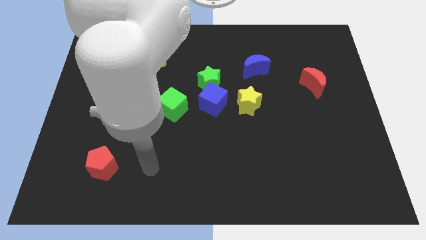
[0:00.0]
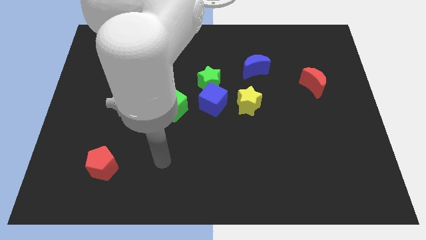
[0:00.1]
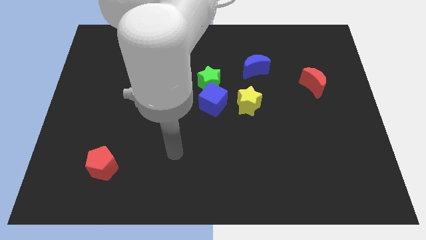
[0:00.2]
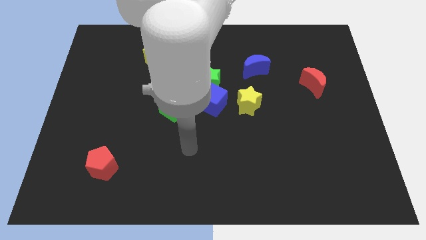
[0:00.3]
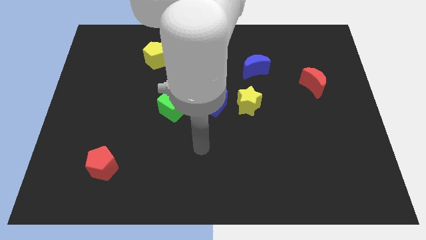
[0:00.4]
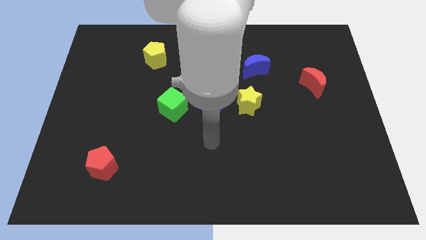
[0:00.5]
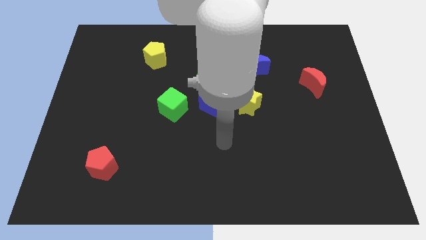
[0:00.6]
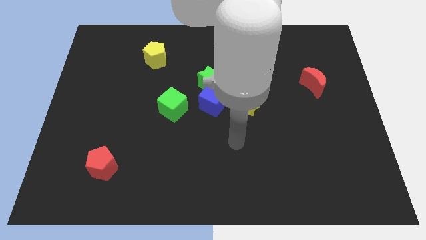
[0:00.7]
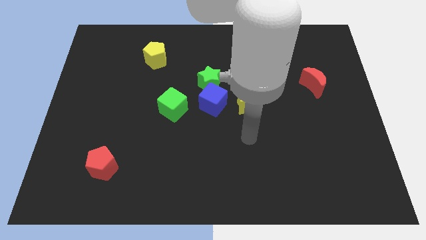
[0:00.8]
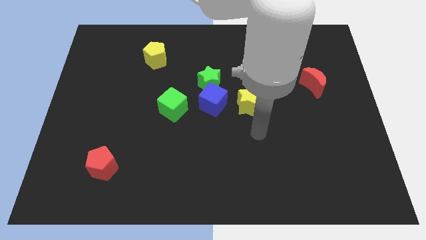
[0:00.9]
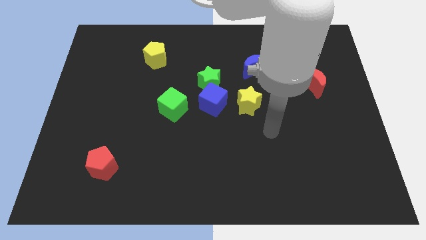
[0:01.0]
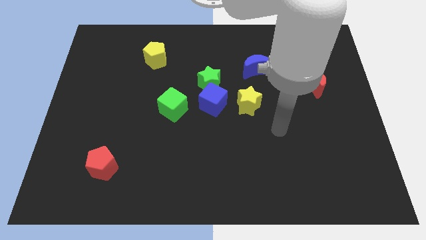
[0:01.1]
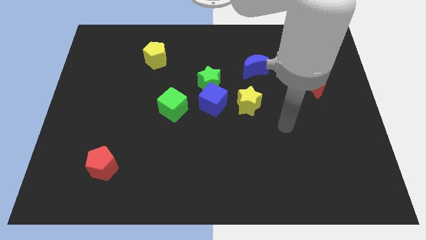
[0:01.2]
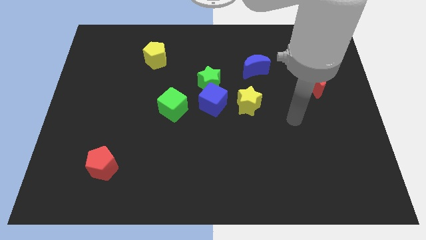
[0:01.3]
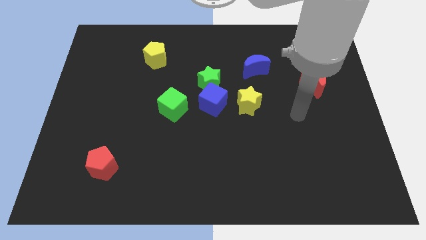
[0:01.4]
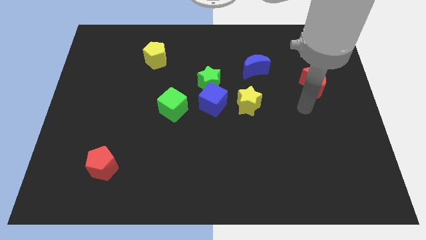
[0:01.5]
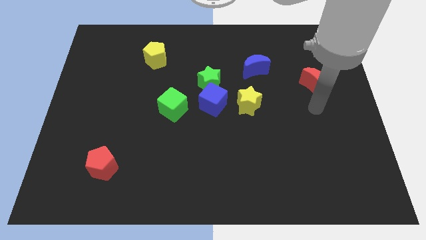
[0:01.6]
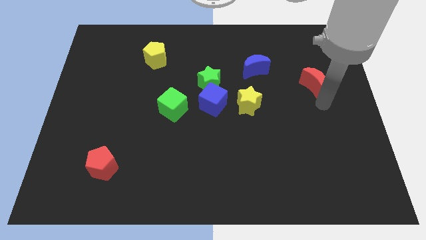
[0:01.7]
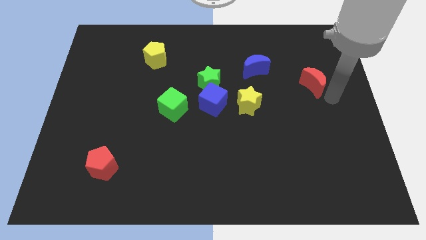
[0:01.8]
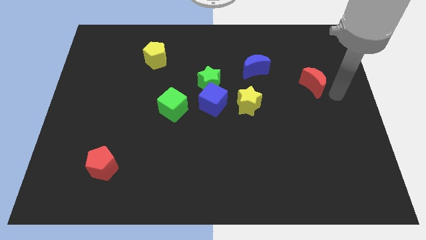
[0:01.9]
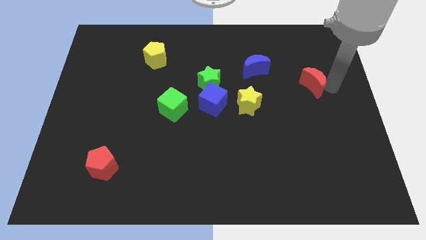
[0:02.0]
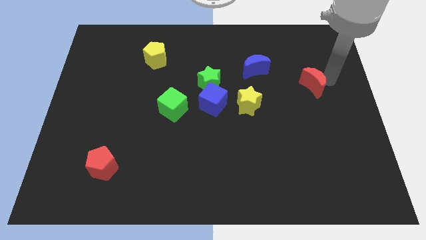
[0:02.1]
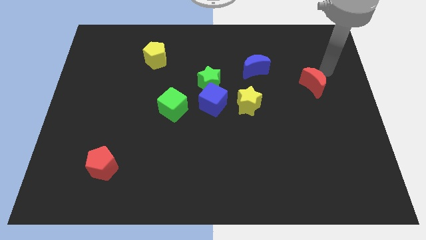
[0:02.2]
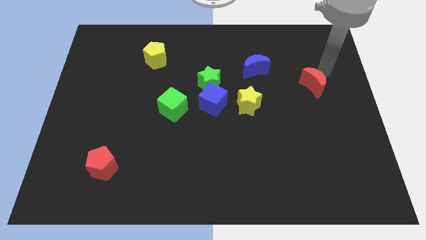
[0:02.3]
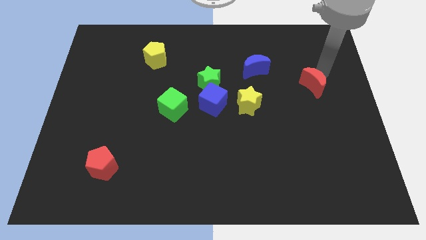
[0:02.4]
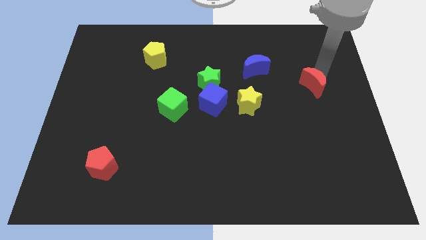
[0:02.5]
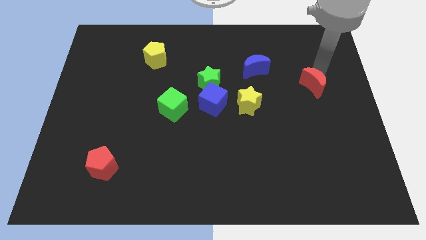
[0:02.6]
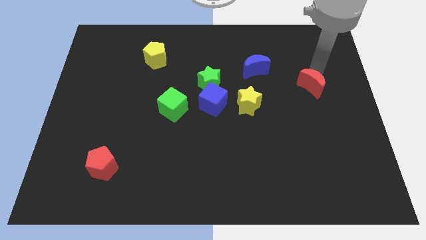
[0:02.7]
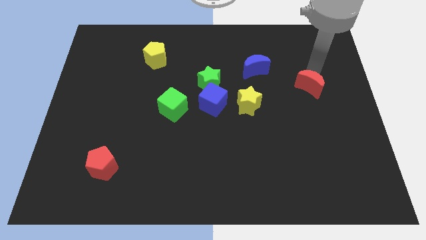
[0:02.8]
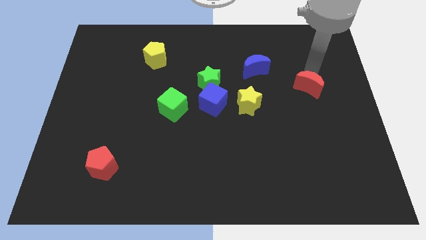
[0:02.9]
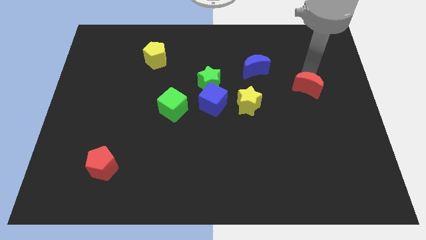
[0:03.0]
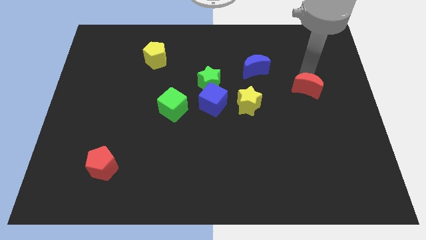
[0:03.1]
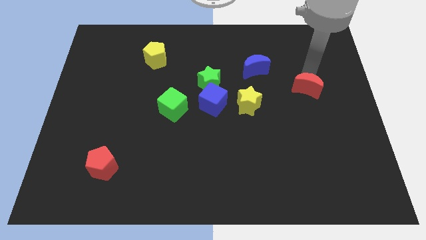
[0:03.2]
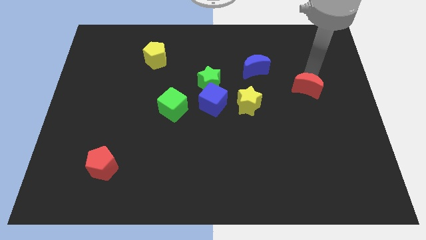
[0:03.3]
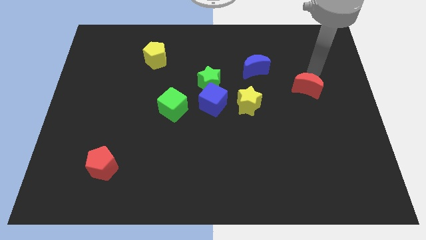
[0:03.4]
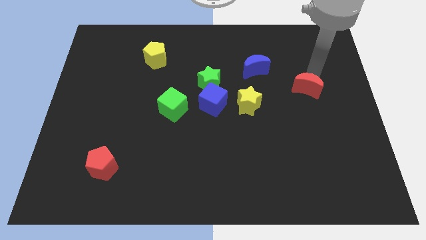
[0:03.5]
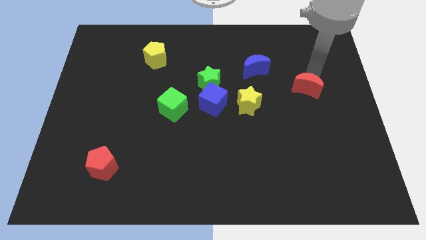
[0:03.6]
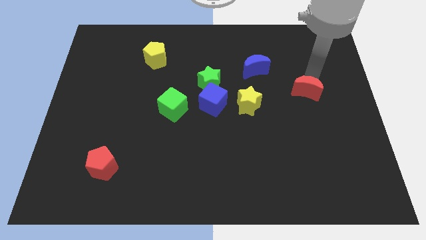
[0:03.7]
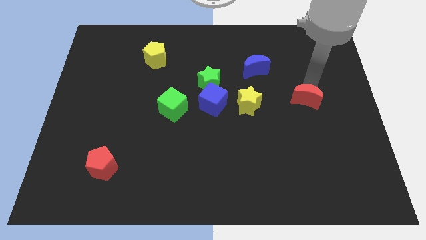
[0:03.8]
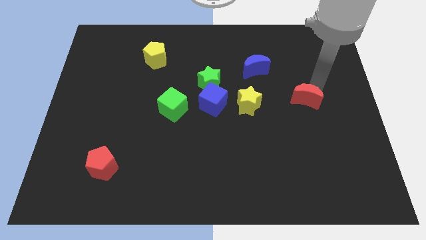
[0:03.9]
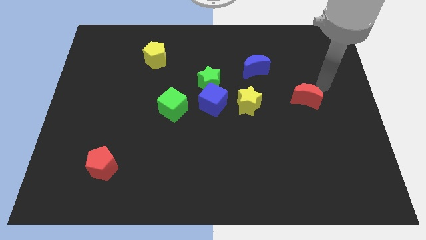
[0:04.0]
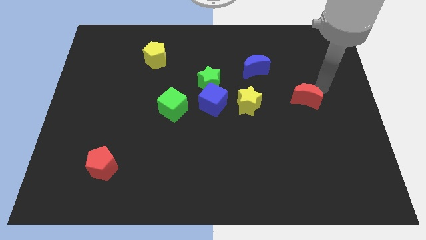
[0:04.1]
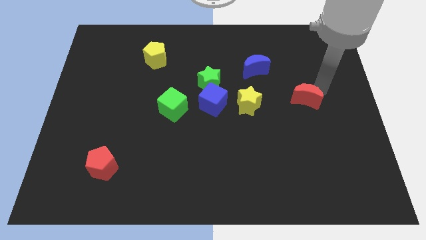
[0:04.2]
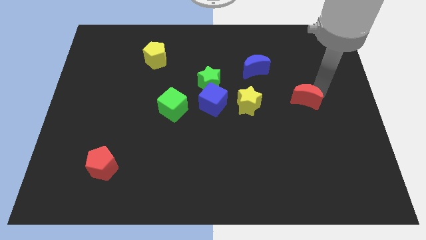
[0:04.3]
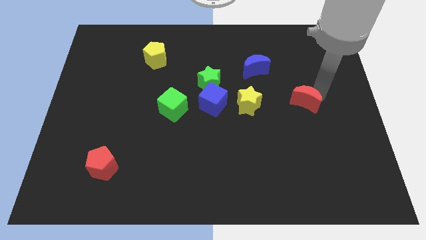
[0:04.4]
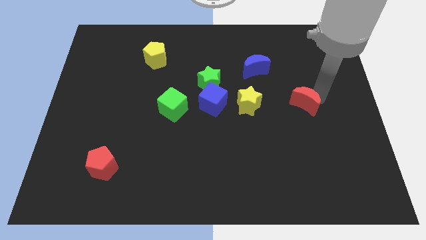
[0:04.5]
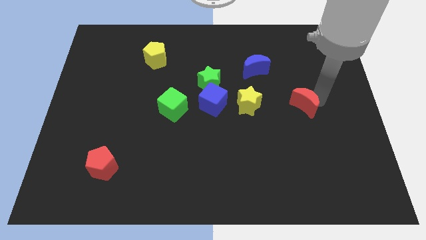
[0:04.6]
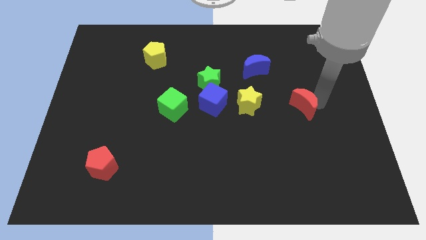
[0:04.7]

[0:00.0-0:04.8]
push the red moon diagonally down and left somewhat

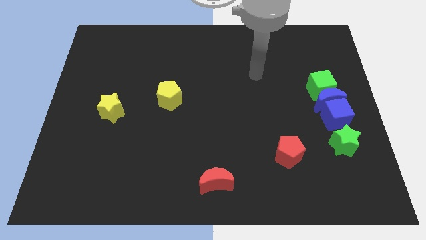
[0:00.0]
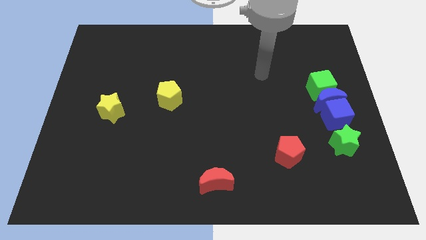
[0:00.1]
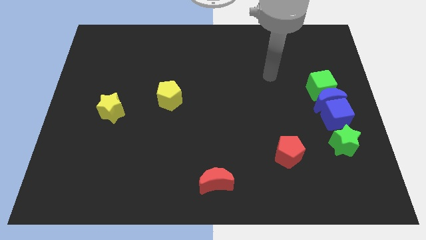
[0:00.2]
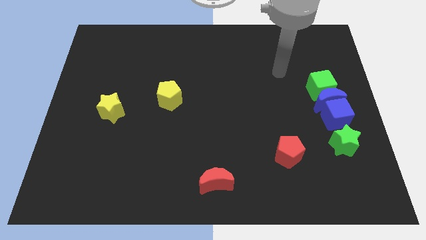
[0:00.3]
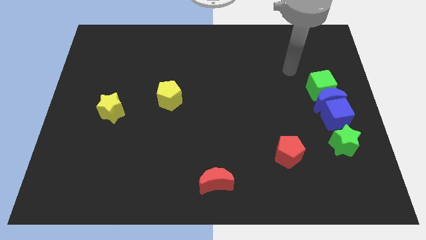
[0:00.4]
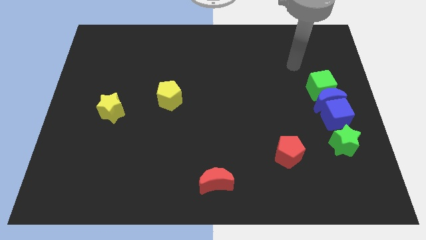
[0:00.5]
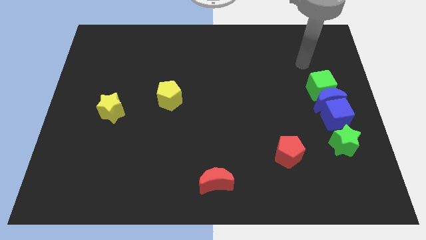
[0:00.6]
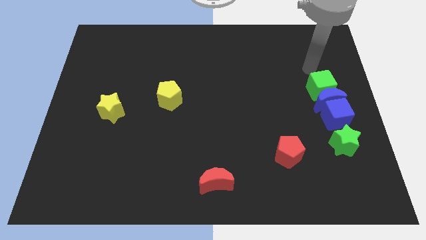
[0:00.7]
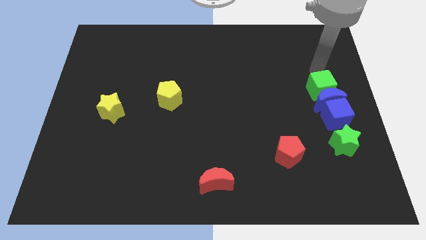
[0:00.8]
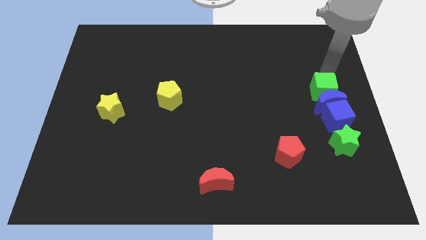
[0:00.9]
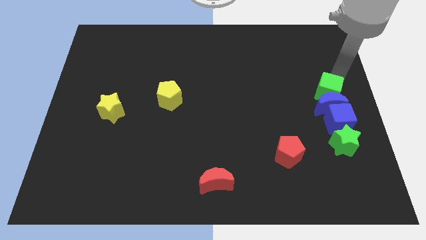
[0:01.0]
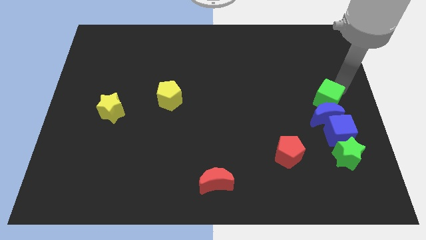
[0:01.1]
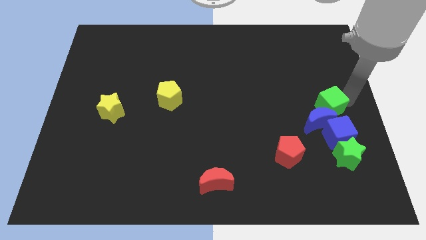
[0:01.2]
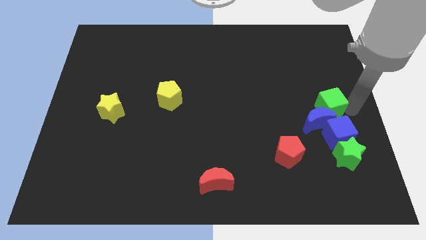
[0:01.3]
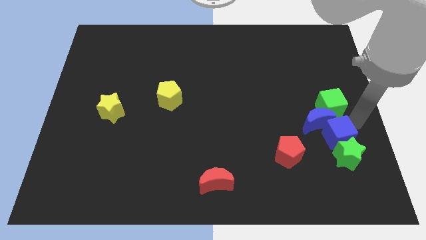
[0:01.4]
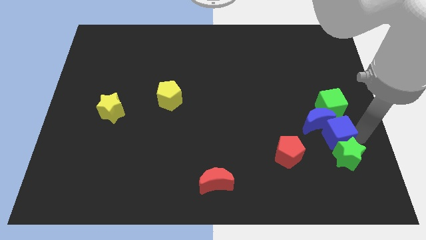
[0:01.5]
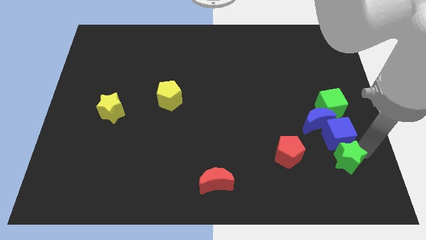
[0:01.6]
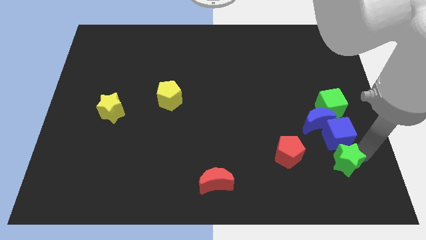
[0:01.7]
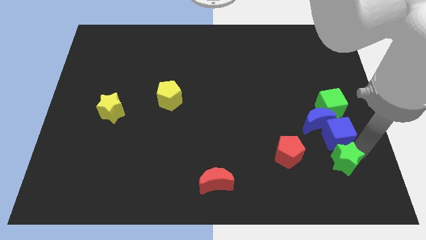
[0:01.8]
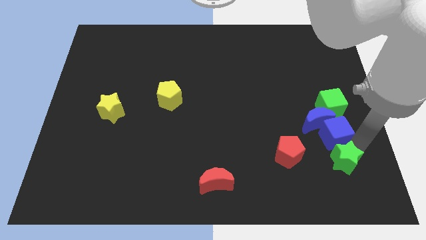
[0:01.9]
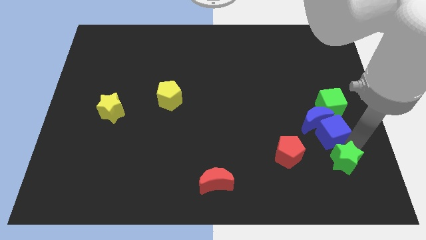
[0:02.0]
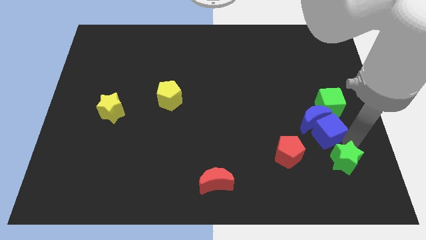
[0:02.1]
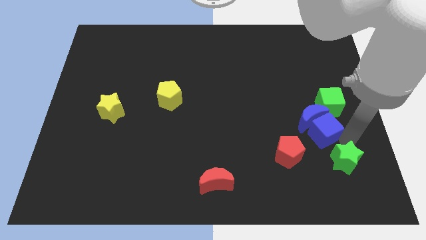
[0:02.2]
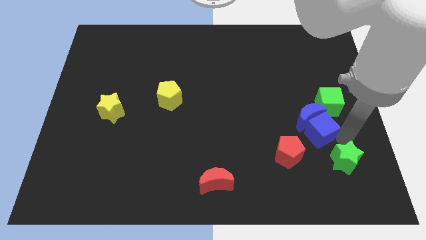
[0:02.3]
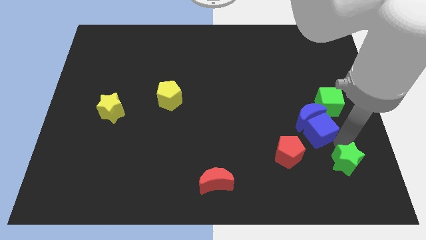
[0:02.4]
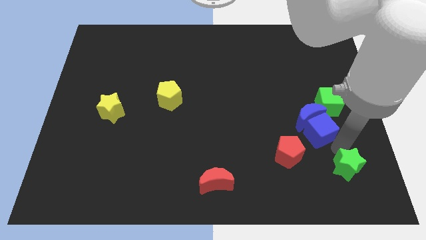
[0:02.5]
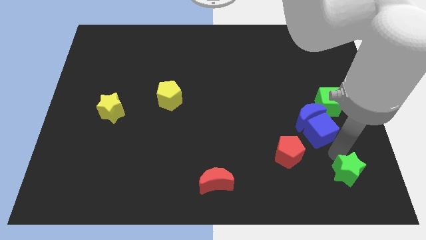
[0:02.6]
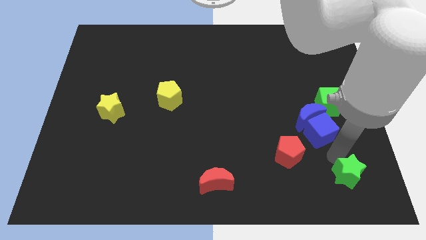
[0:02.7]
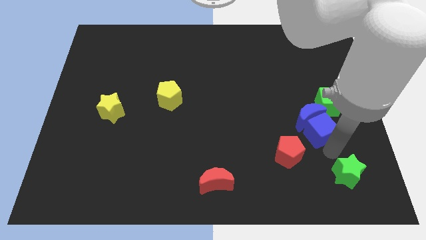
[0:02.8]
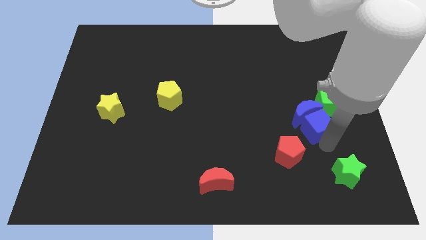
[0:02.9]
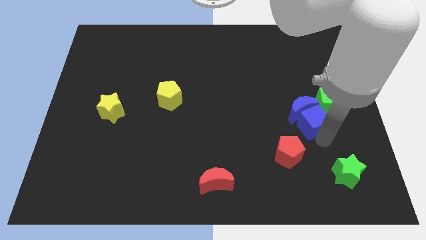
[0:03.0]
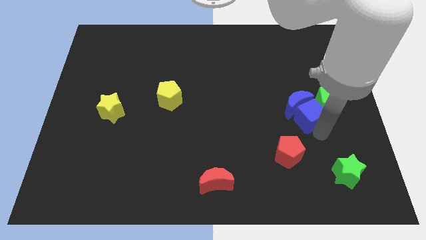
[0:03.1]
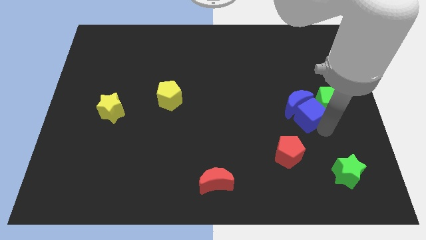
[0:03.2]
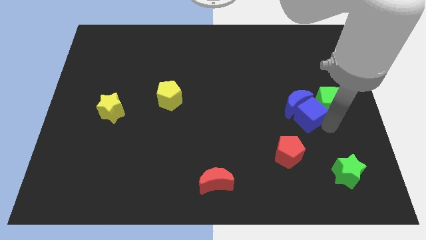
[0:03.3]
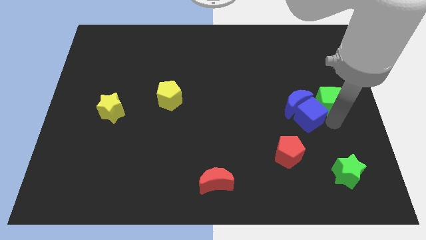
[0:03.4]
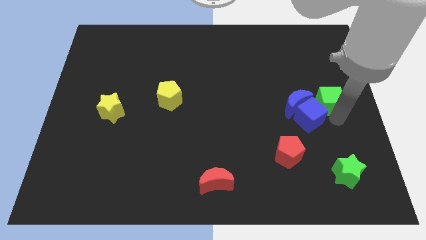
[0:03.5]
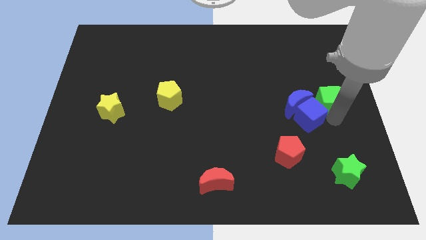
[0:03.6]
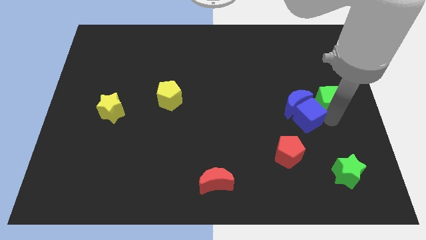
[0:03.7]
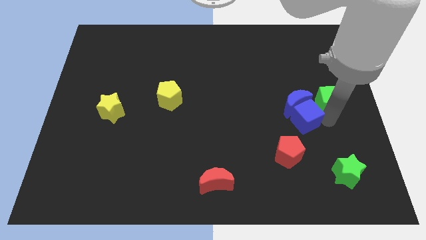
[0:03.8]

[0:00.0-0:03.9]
slide the blue cube left a little
